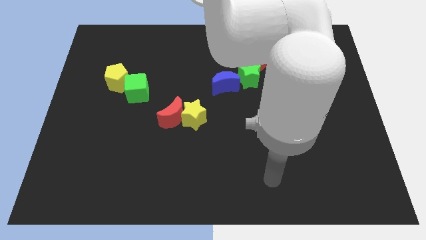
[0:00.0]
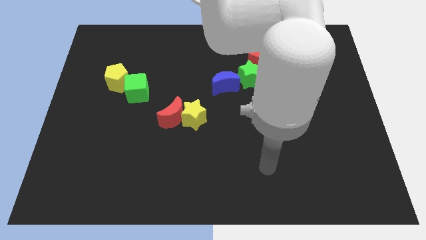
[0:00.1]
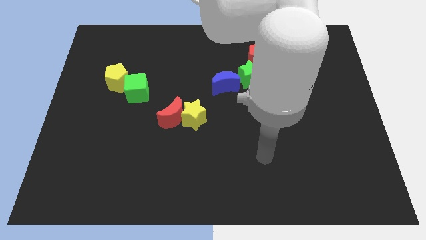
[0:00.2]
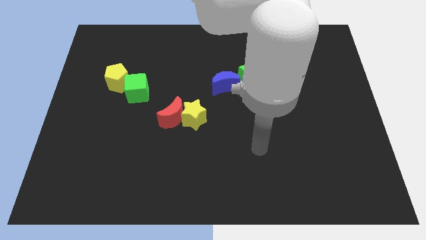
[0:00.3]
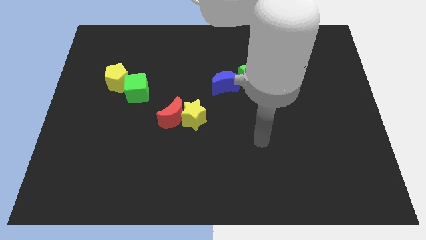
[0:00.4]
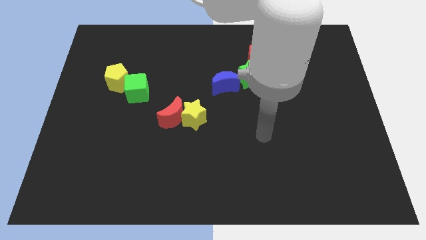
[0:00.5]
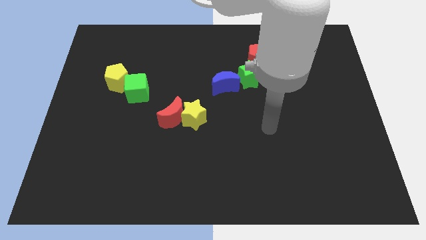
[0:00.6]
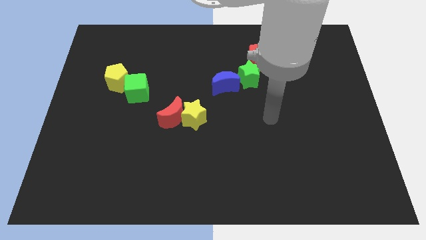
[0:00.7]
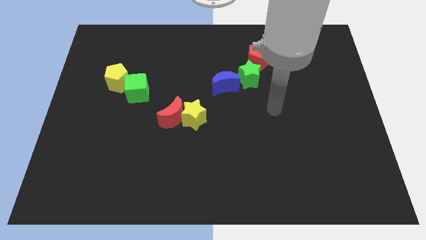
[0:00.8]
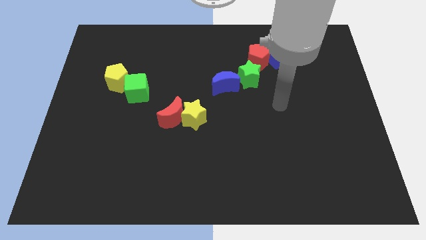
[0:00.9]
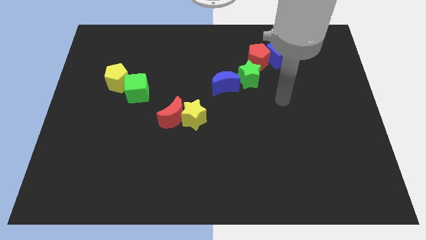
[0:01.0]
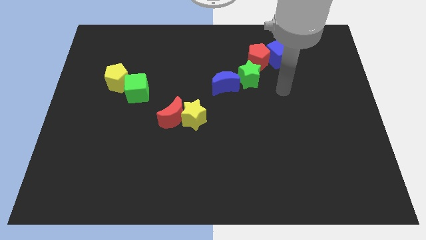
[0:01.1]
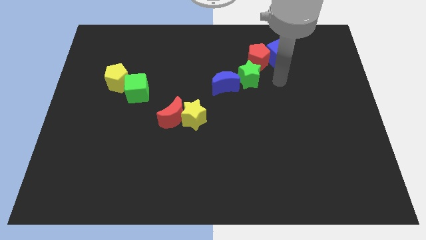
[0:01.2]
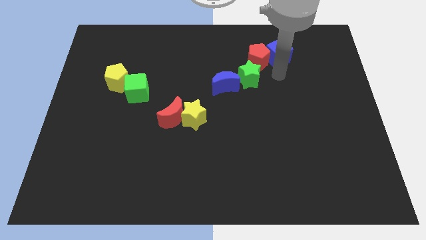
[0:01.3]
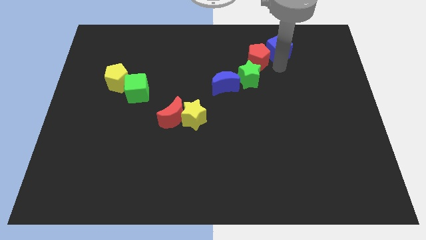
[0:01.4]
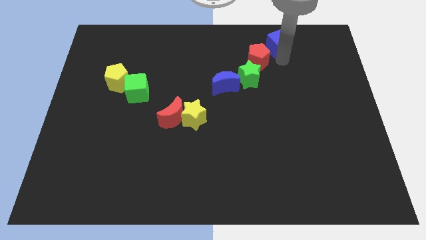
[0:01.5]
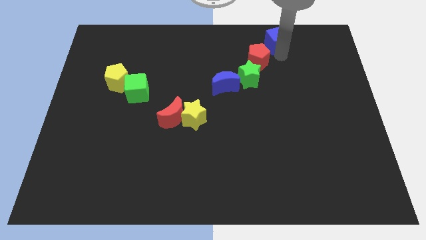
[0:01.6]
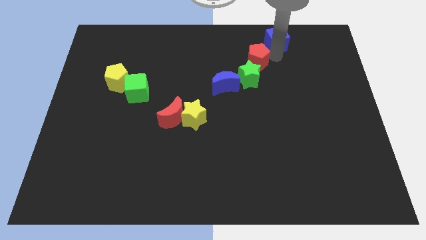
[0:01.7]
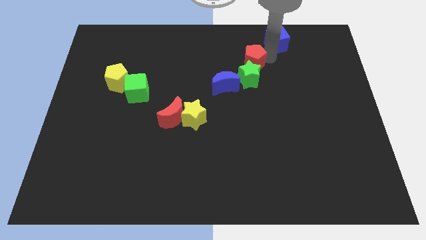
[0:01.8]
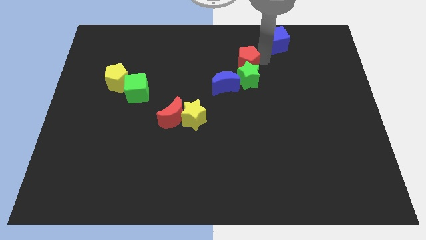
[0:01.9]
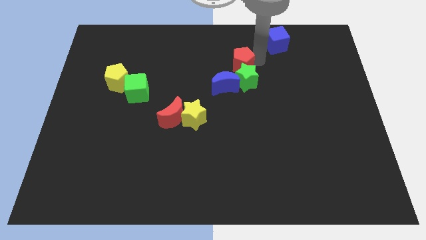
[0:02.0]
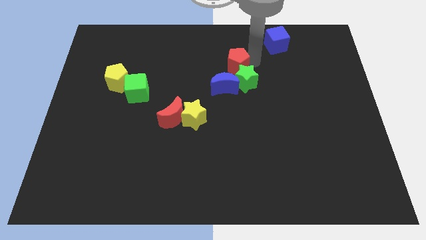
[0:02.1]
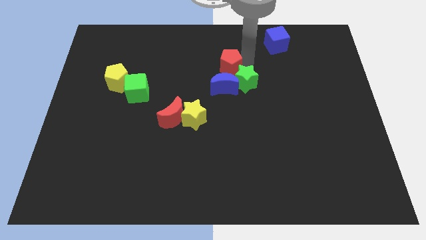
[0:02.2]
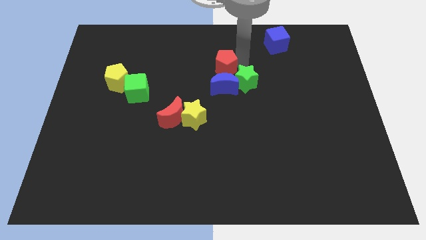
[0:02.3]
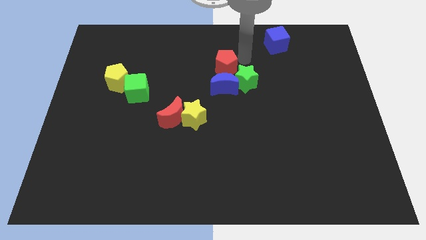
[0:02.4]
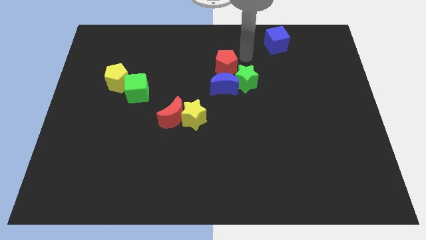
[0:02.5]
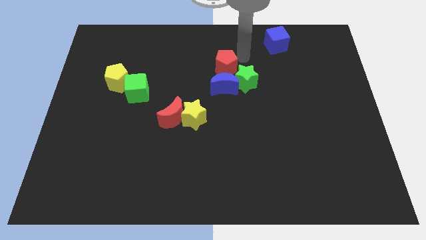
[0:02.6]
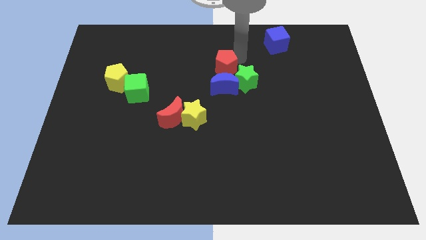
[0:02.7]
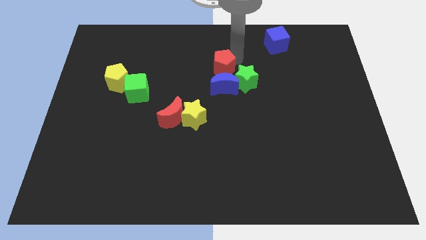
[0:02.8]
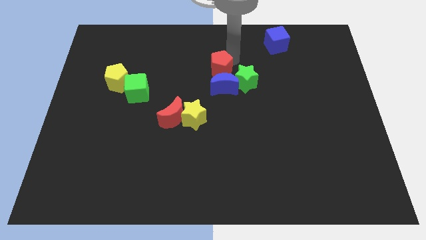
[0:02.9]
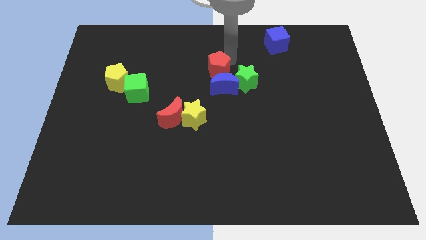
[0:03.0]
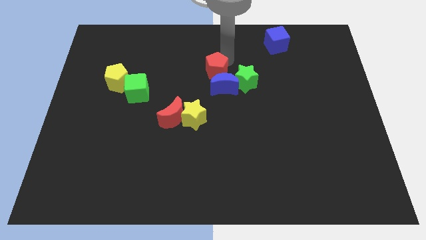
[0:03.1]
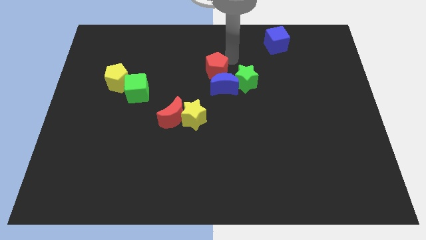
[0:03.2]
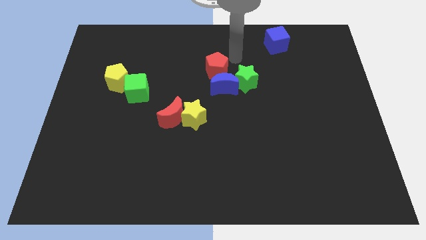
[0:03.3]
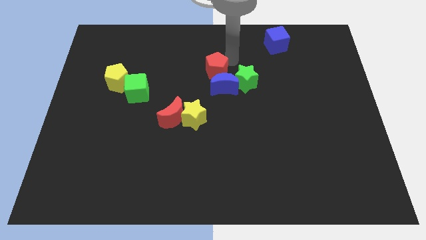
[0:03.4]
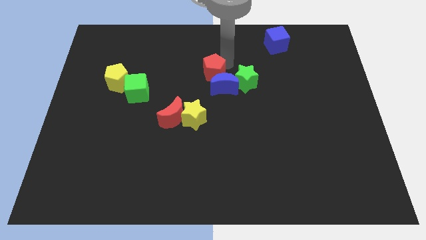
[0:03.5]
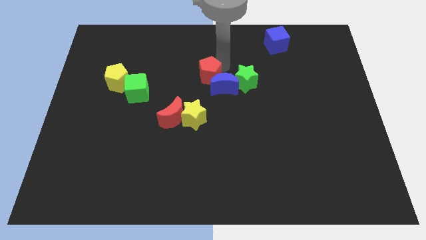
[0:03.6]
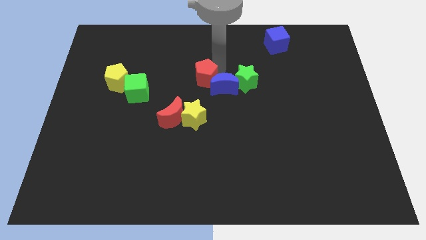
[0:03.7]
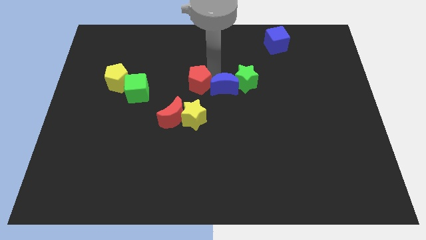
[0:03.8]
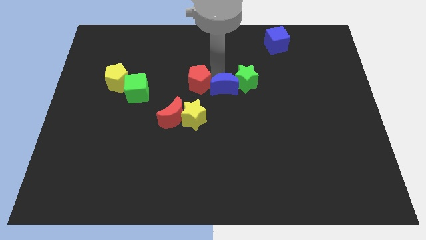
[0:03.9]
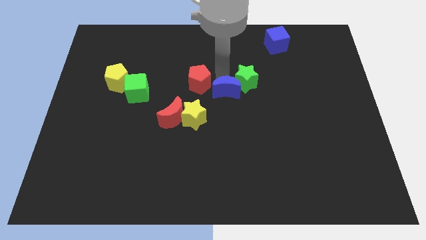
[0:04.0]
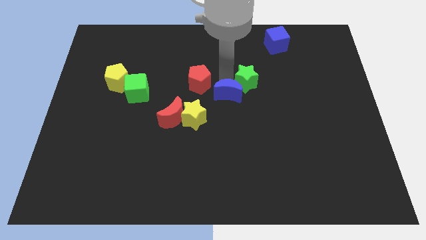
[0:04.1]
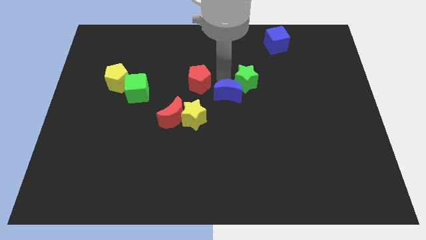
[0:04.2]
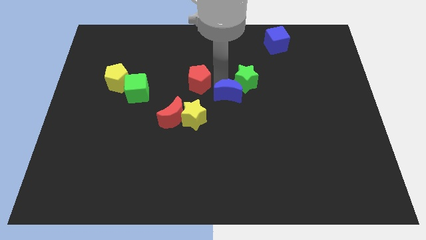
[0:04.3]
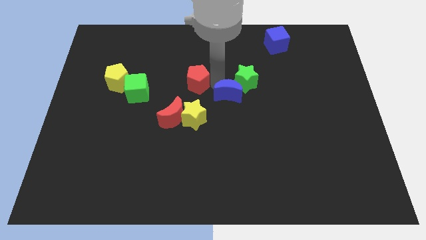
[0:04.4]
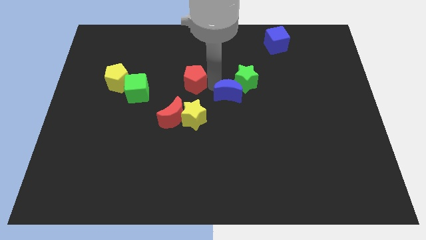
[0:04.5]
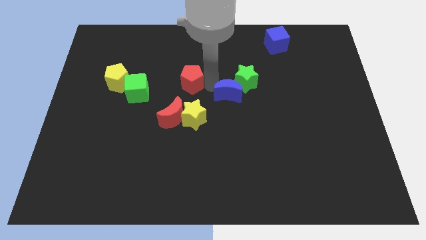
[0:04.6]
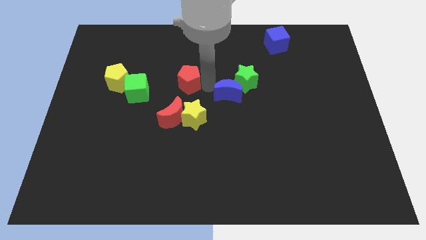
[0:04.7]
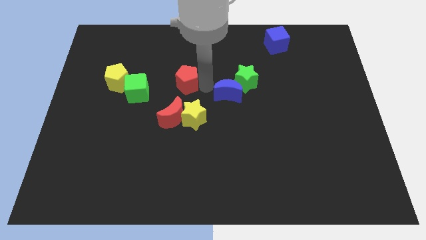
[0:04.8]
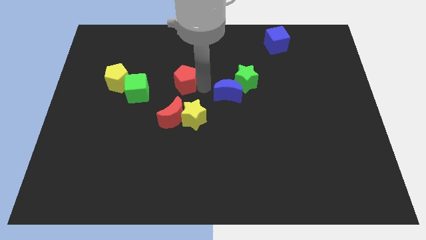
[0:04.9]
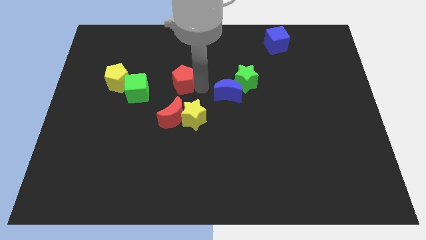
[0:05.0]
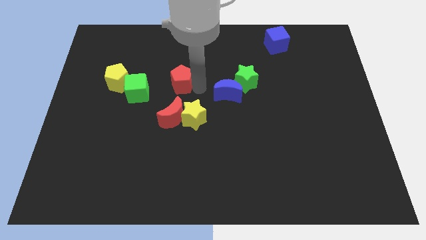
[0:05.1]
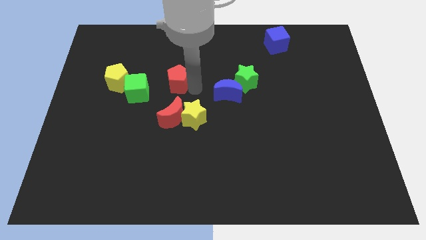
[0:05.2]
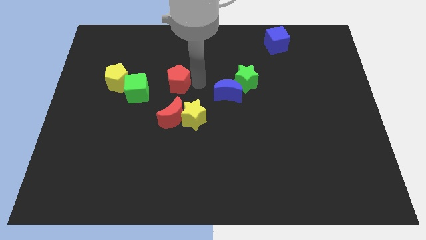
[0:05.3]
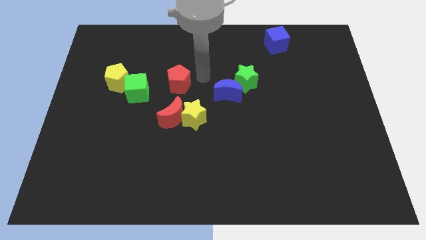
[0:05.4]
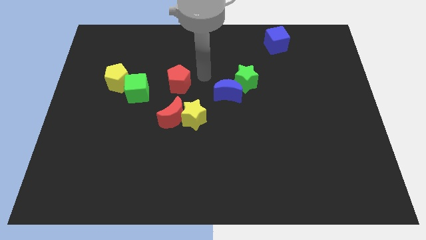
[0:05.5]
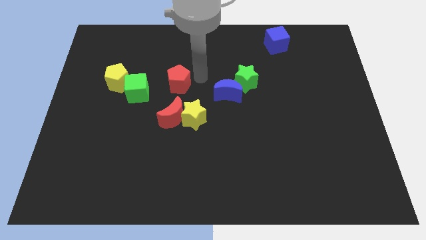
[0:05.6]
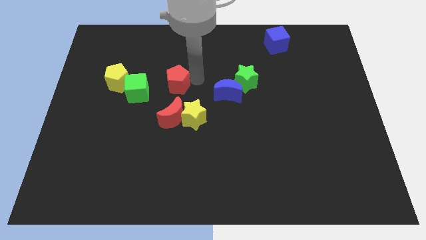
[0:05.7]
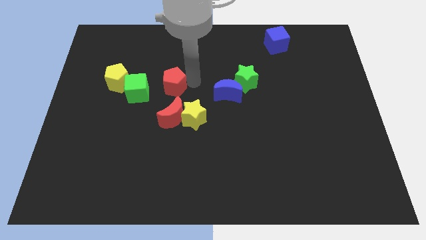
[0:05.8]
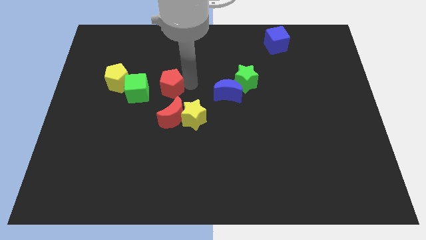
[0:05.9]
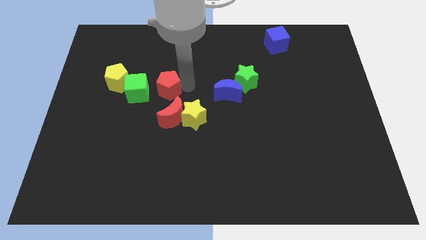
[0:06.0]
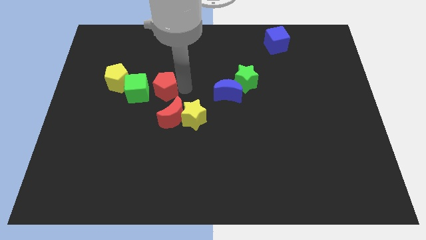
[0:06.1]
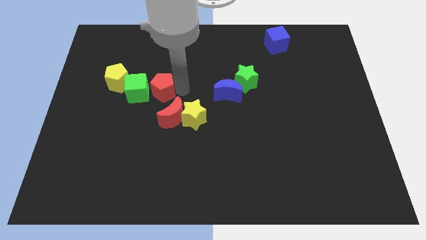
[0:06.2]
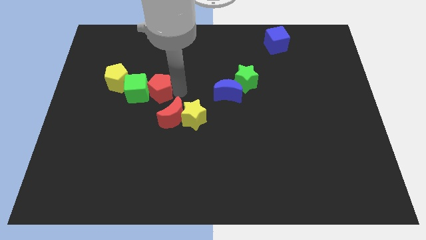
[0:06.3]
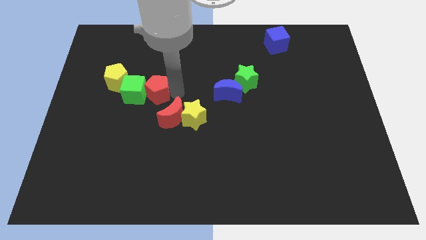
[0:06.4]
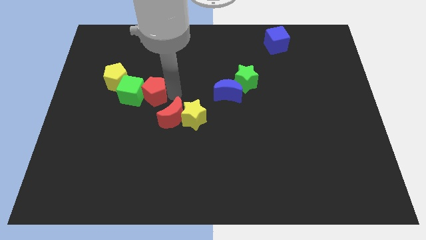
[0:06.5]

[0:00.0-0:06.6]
push the red pentagon to the bottom right of the yellow pentagon
